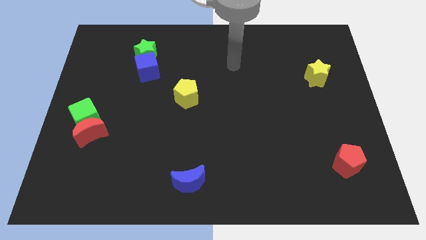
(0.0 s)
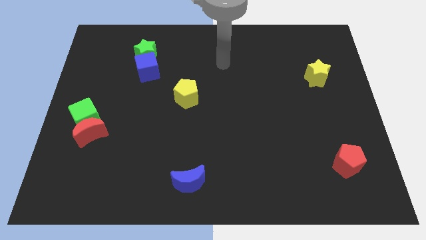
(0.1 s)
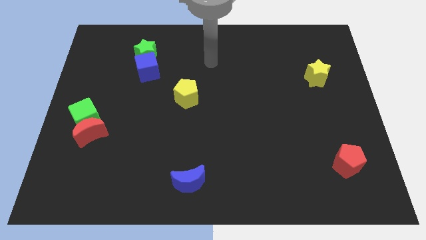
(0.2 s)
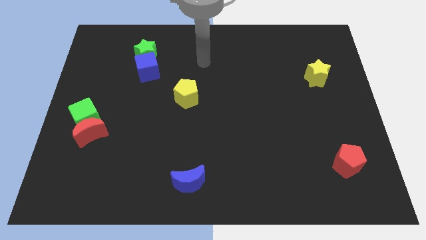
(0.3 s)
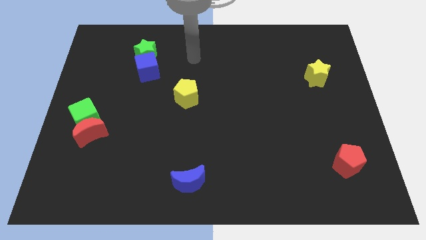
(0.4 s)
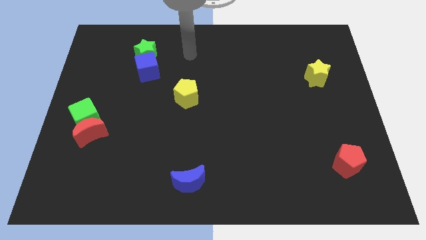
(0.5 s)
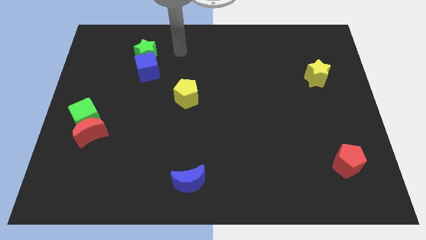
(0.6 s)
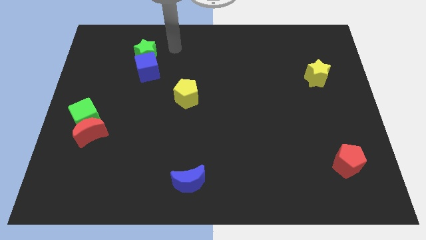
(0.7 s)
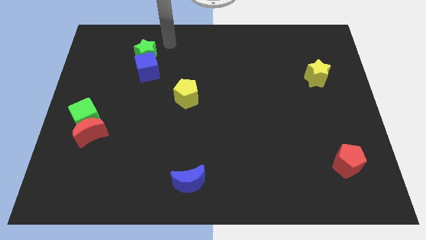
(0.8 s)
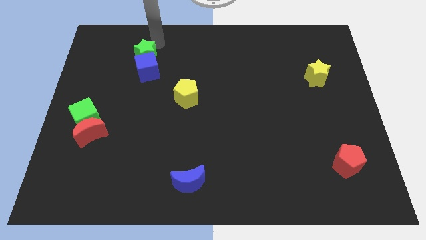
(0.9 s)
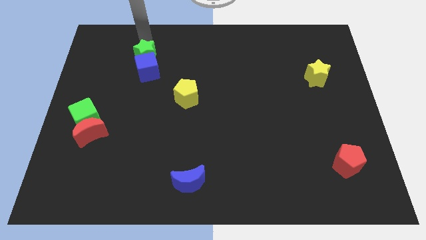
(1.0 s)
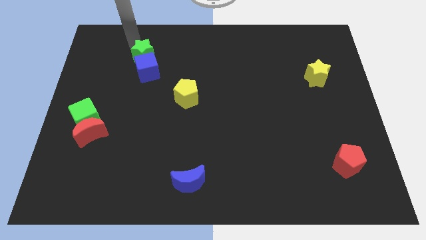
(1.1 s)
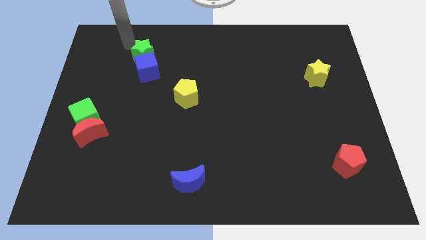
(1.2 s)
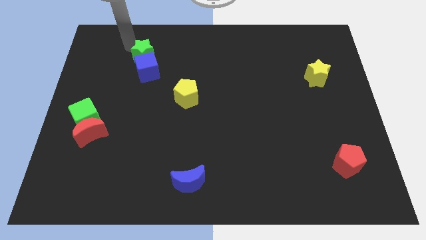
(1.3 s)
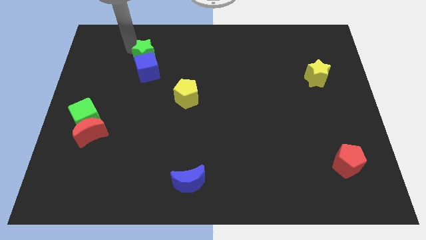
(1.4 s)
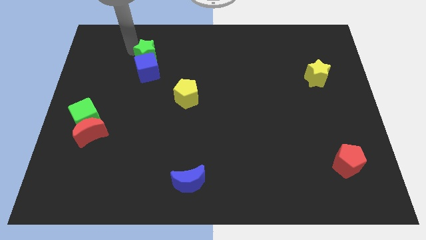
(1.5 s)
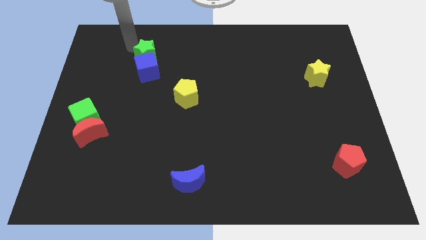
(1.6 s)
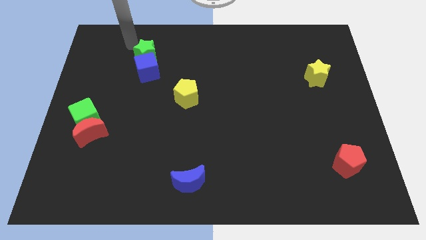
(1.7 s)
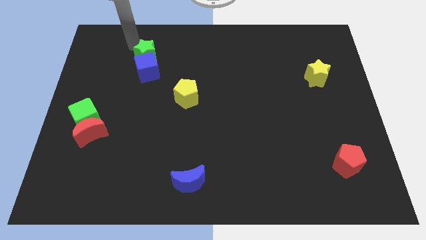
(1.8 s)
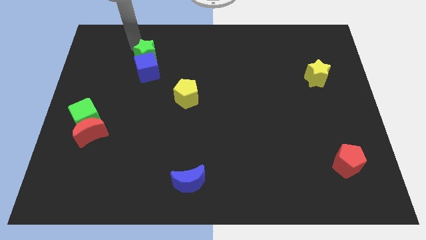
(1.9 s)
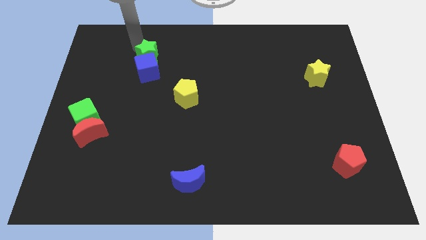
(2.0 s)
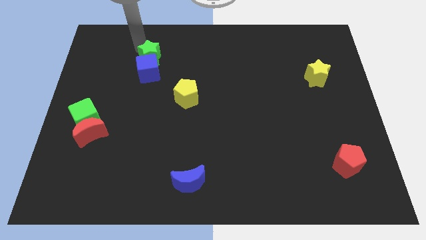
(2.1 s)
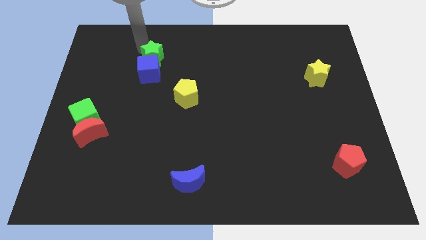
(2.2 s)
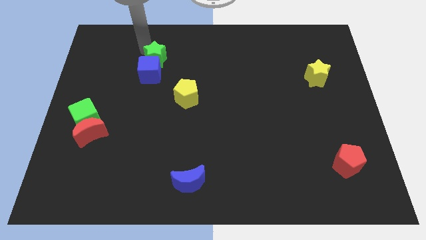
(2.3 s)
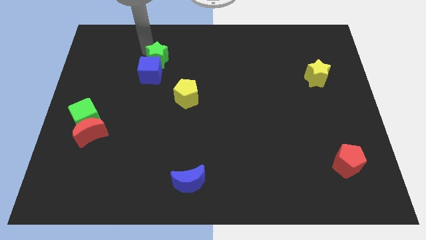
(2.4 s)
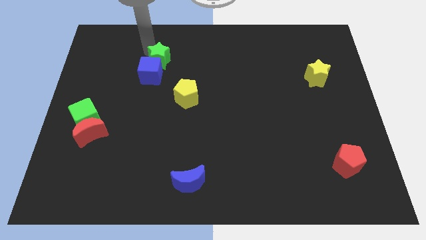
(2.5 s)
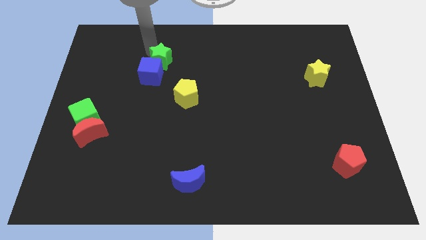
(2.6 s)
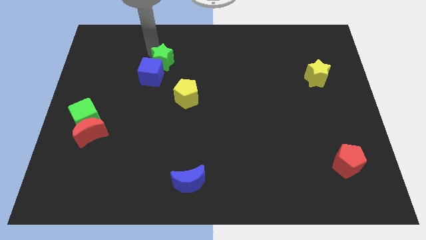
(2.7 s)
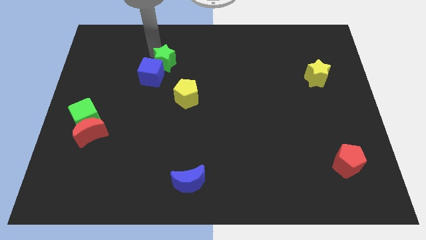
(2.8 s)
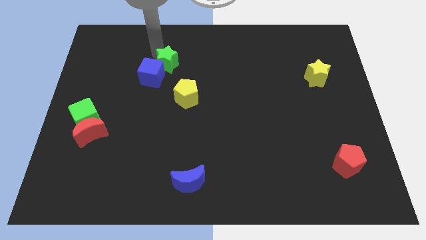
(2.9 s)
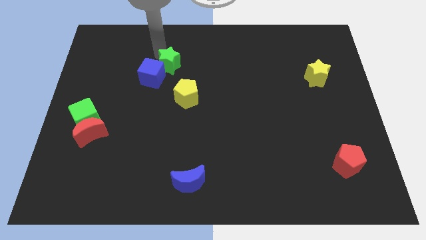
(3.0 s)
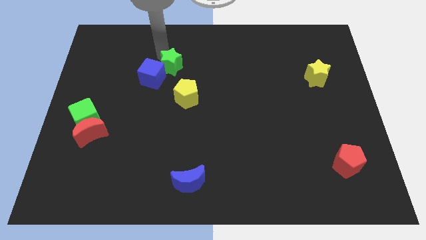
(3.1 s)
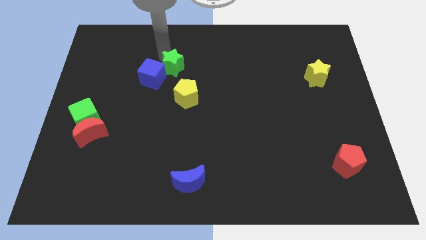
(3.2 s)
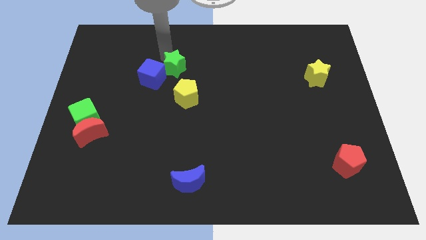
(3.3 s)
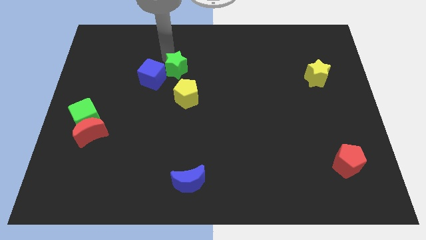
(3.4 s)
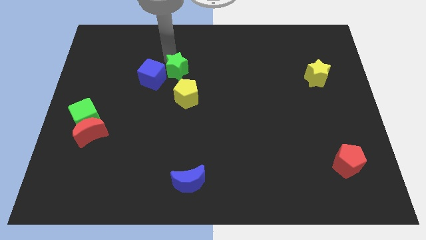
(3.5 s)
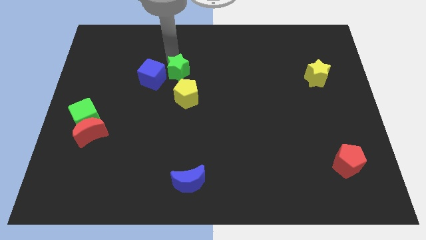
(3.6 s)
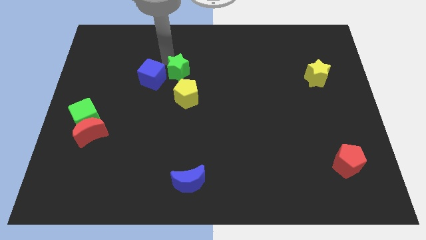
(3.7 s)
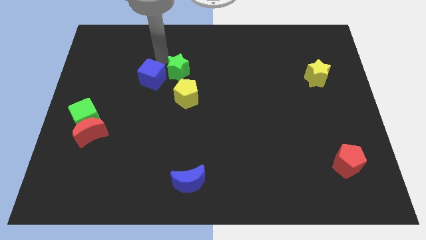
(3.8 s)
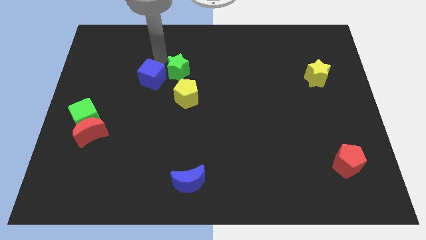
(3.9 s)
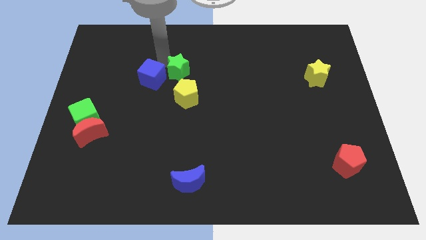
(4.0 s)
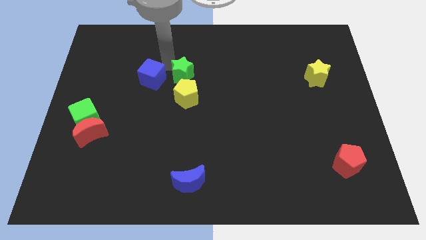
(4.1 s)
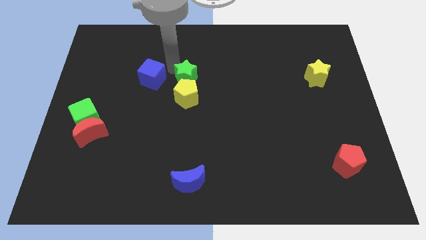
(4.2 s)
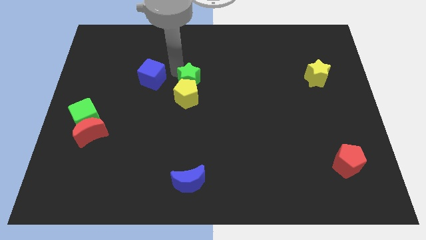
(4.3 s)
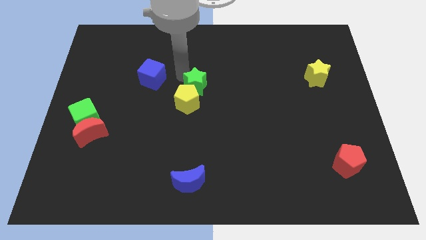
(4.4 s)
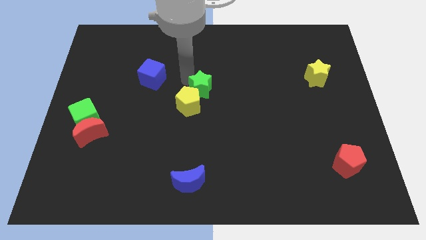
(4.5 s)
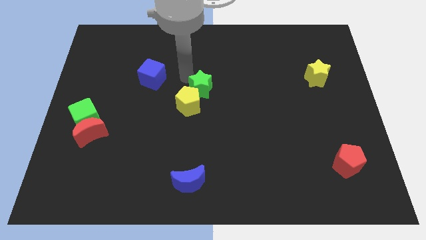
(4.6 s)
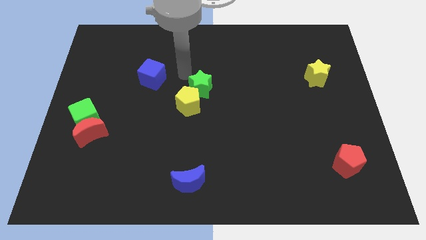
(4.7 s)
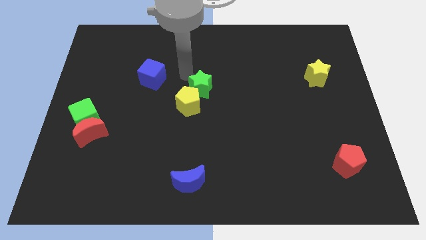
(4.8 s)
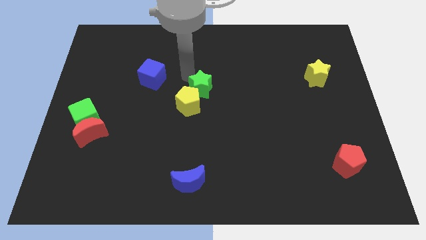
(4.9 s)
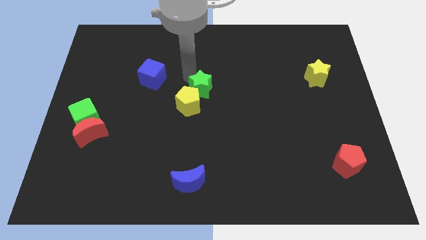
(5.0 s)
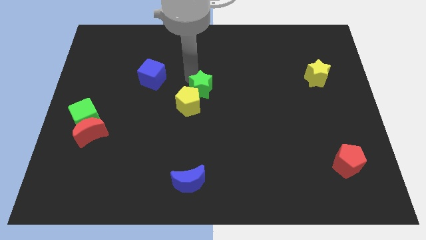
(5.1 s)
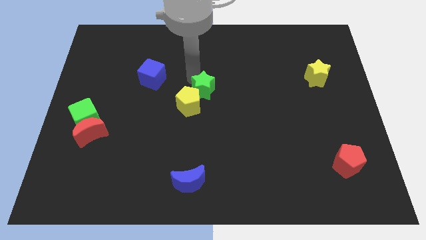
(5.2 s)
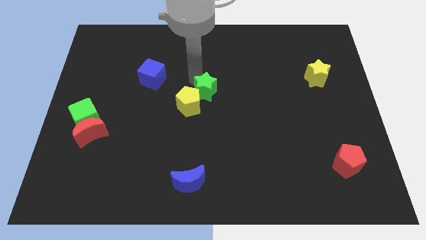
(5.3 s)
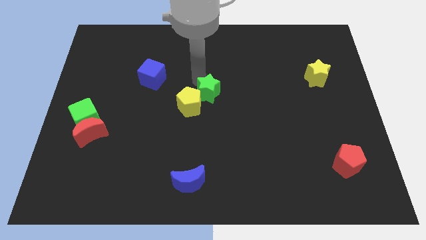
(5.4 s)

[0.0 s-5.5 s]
slide the green star diagonally down and to the right

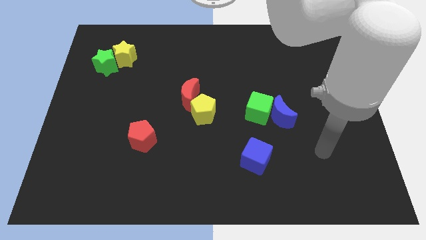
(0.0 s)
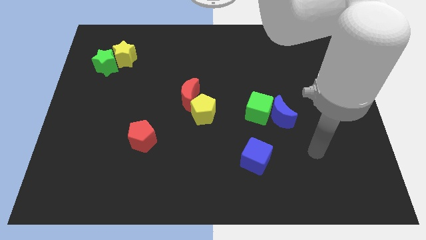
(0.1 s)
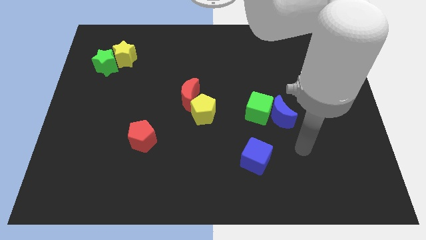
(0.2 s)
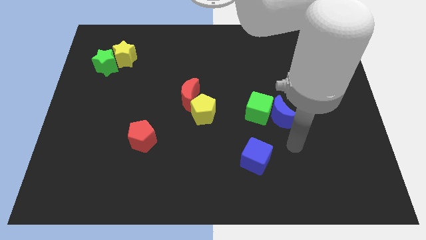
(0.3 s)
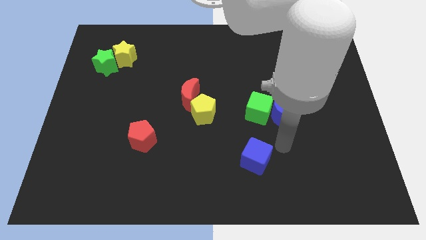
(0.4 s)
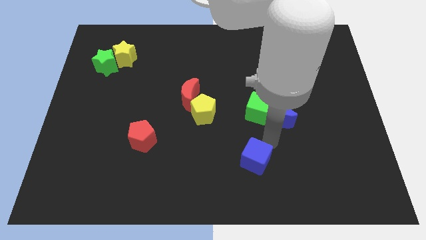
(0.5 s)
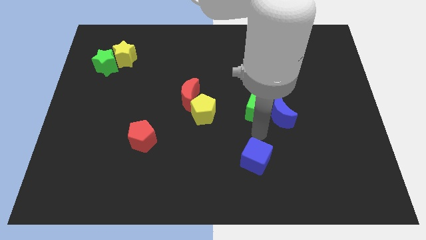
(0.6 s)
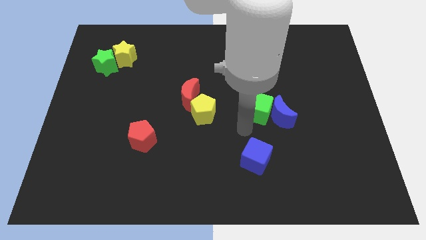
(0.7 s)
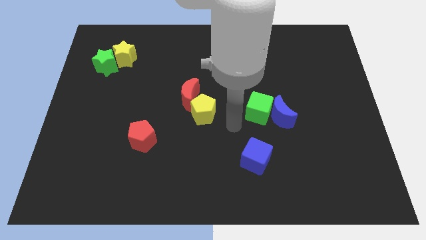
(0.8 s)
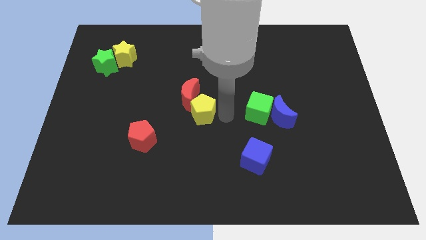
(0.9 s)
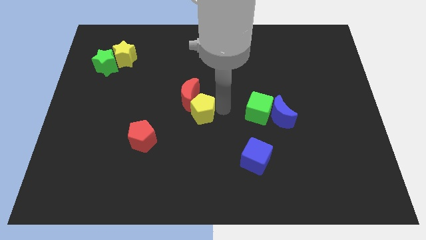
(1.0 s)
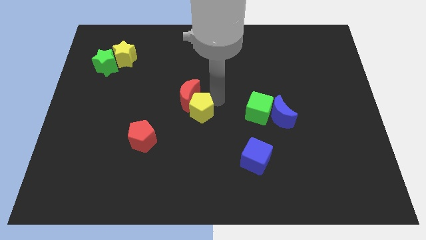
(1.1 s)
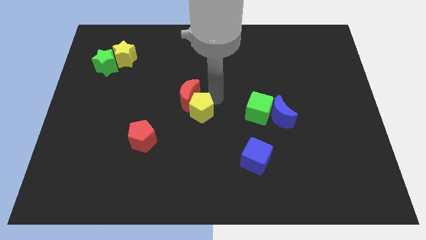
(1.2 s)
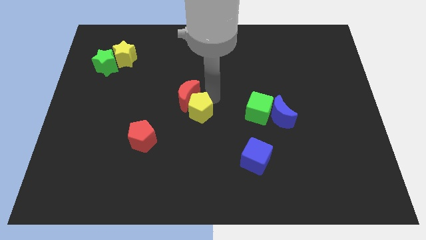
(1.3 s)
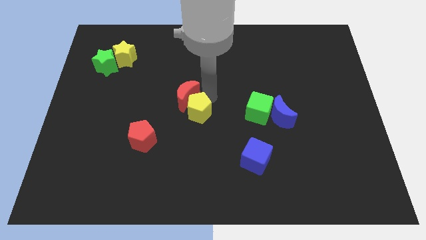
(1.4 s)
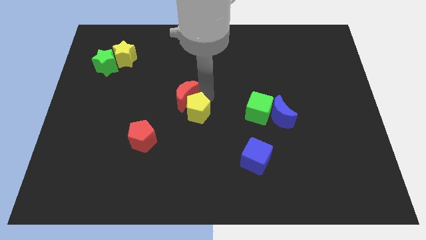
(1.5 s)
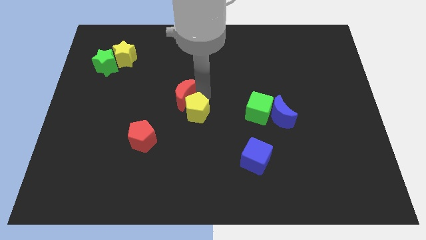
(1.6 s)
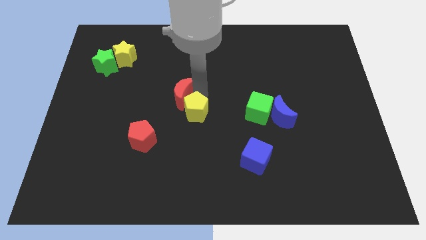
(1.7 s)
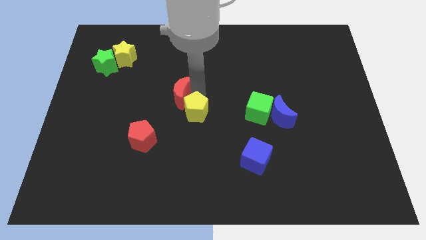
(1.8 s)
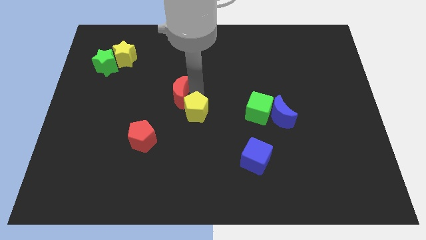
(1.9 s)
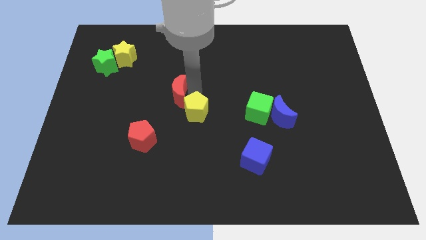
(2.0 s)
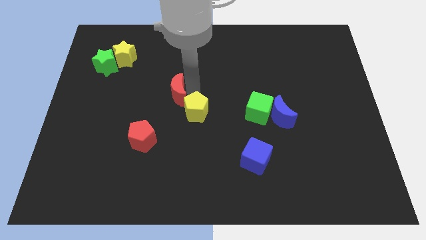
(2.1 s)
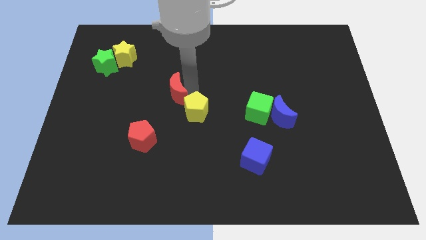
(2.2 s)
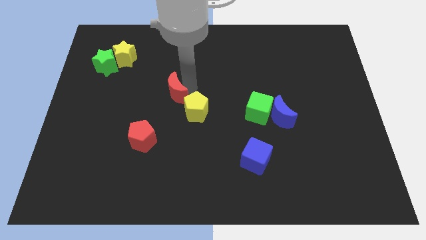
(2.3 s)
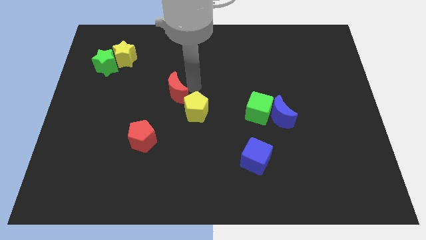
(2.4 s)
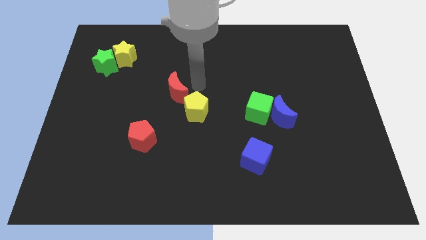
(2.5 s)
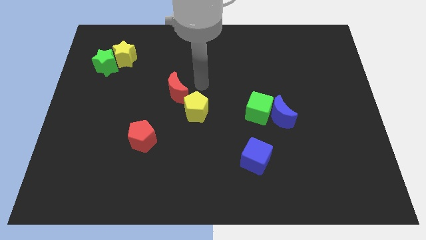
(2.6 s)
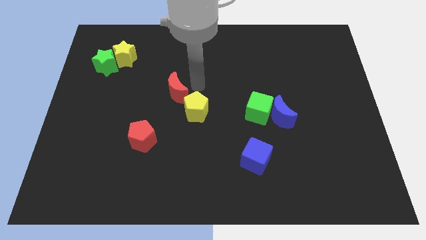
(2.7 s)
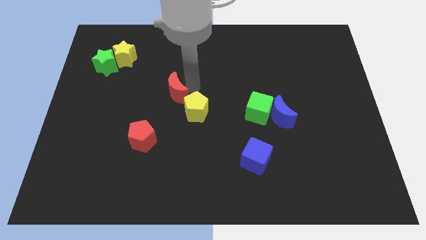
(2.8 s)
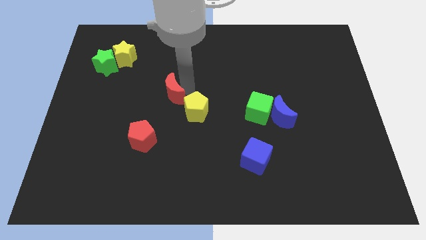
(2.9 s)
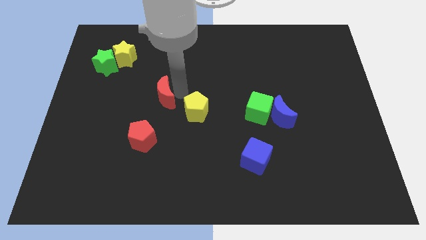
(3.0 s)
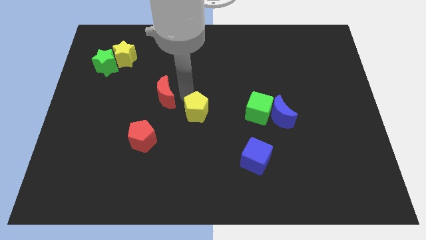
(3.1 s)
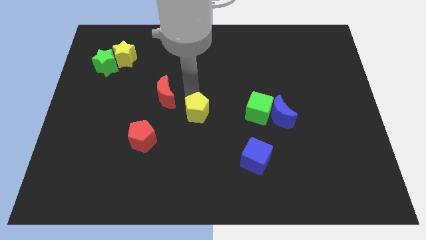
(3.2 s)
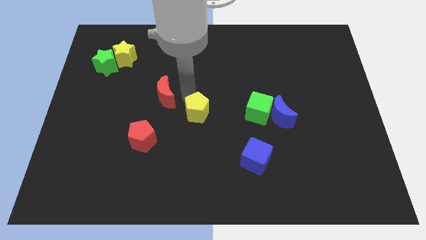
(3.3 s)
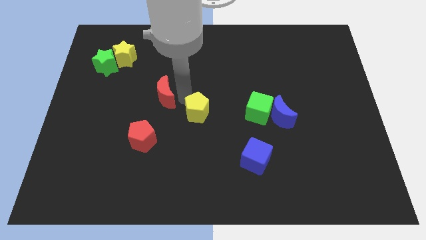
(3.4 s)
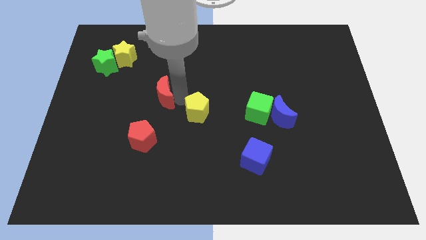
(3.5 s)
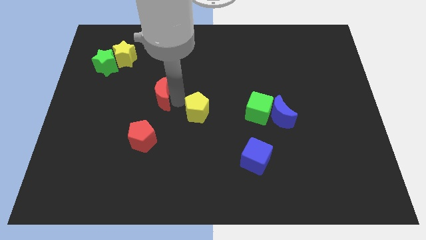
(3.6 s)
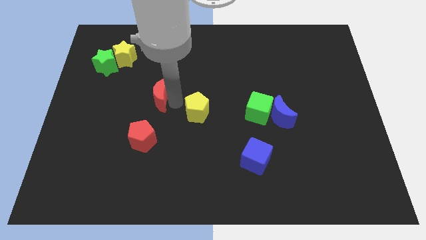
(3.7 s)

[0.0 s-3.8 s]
slide the red moon to the left a little bit
